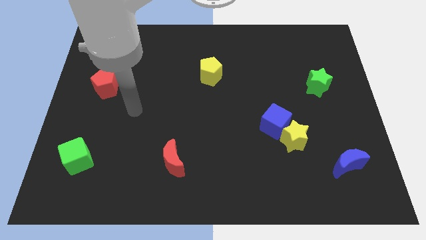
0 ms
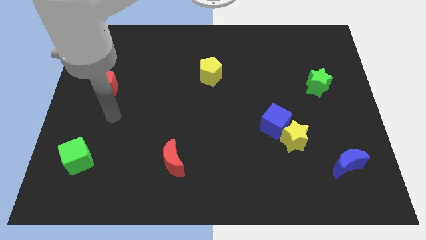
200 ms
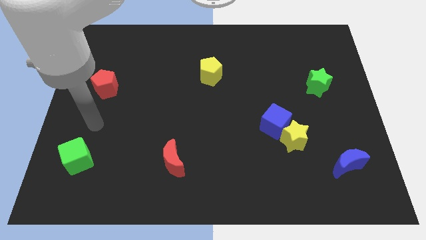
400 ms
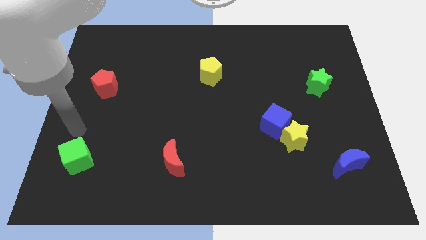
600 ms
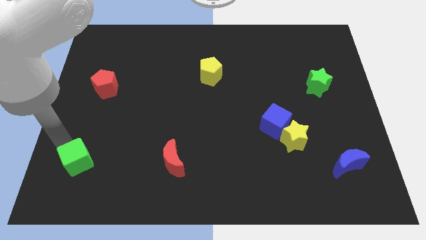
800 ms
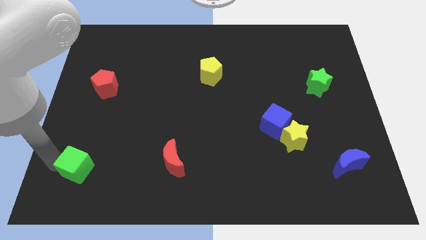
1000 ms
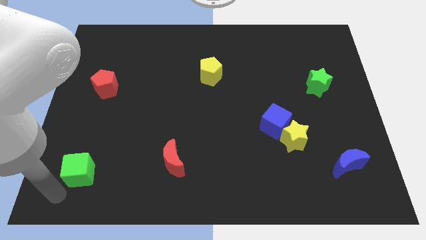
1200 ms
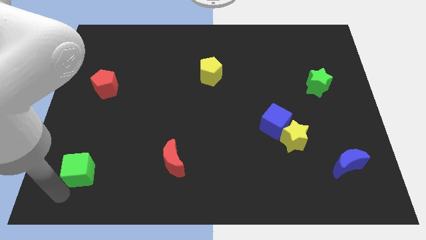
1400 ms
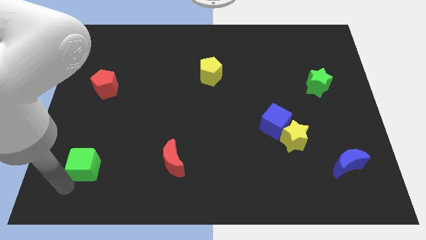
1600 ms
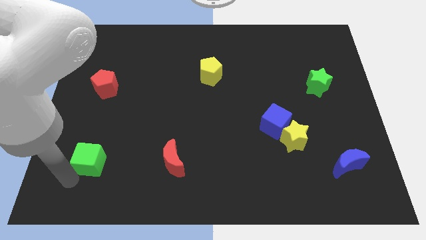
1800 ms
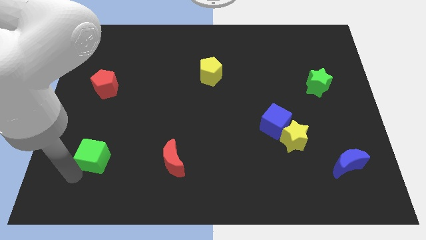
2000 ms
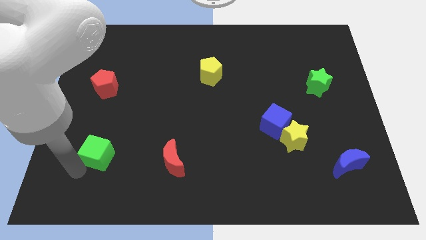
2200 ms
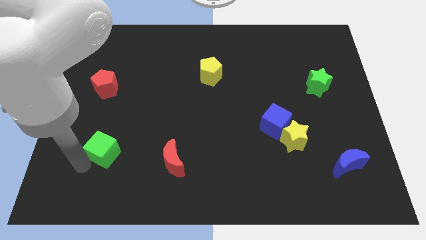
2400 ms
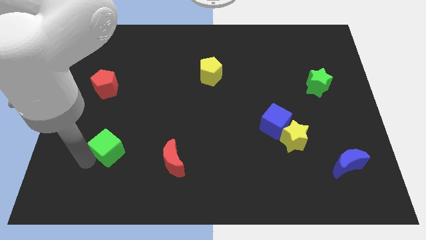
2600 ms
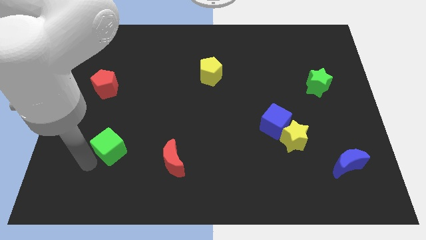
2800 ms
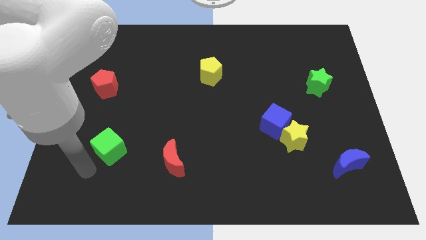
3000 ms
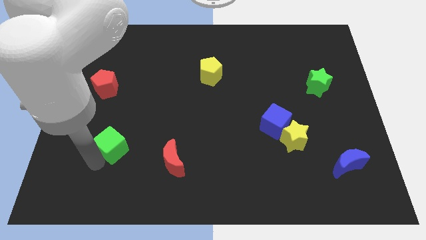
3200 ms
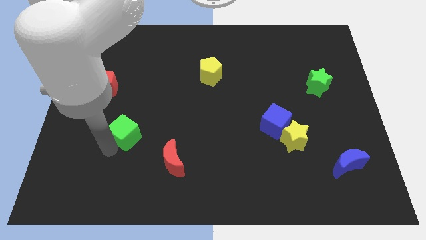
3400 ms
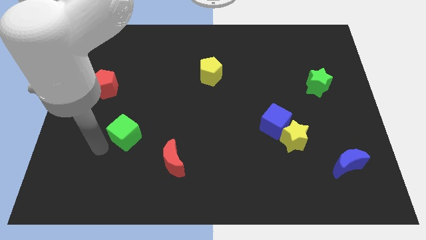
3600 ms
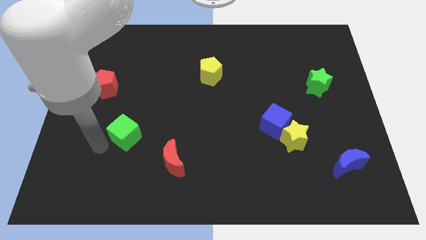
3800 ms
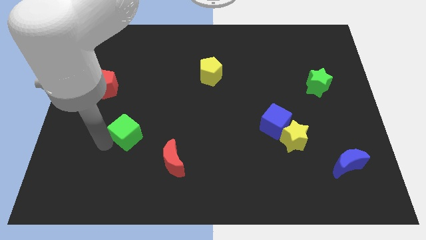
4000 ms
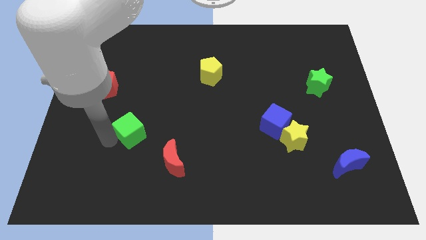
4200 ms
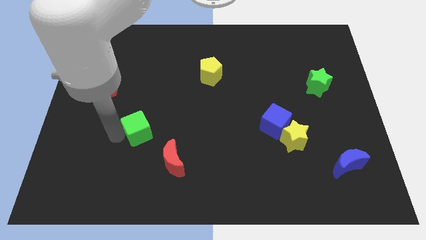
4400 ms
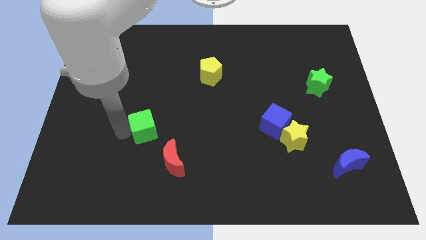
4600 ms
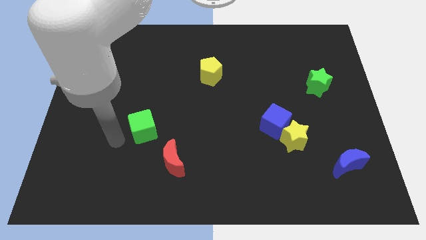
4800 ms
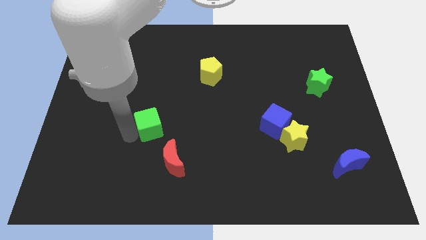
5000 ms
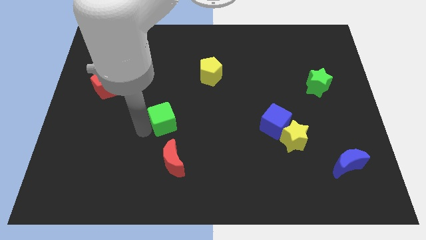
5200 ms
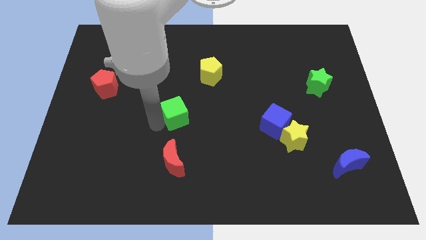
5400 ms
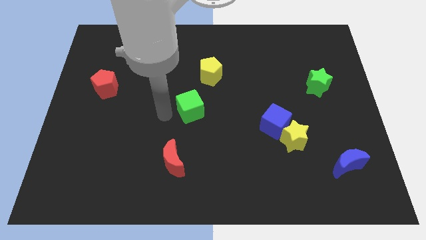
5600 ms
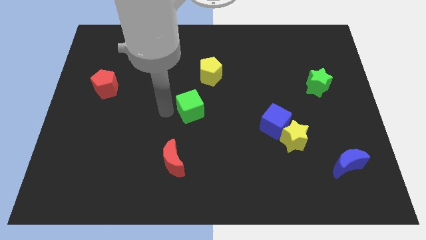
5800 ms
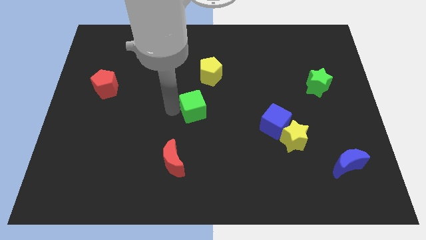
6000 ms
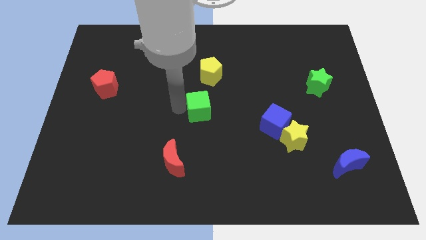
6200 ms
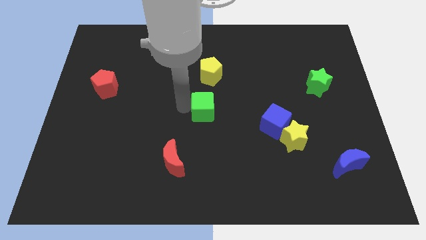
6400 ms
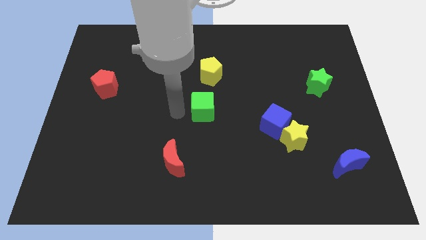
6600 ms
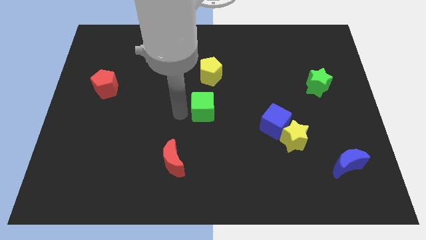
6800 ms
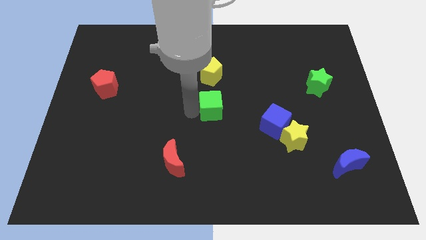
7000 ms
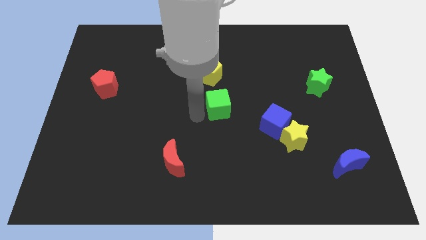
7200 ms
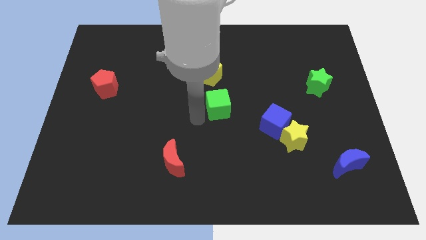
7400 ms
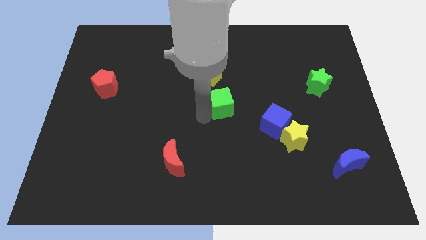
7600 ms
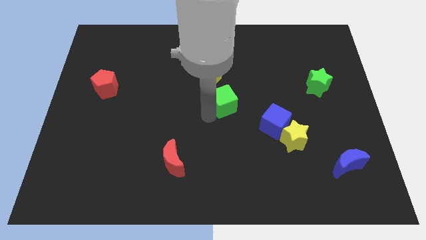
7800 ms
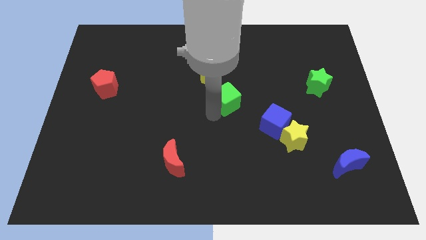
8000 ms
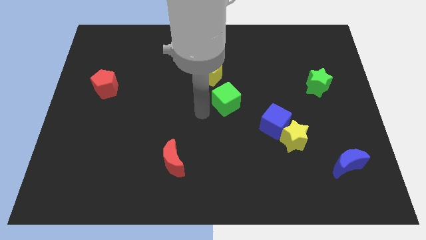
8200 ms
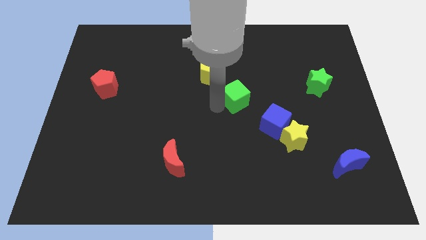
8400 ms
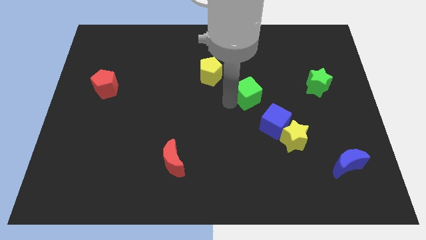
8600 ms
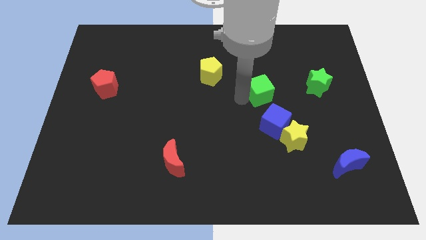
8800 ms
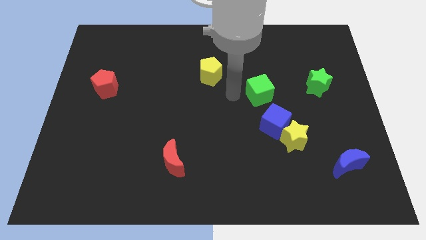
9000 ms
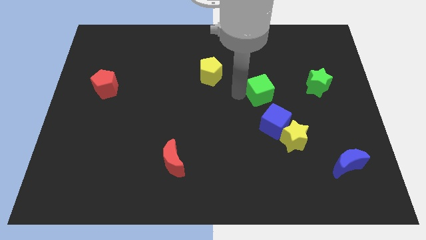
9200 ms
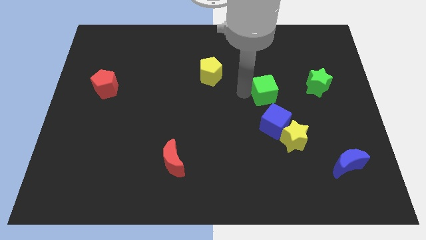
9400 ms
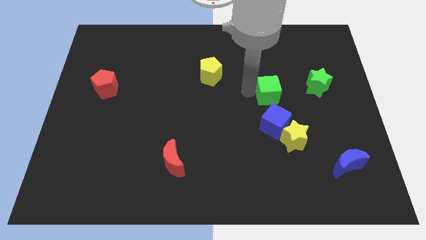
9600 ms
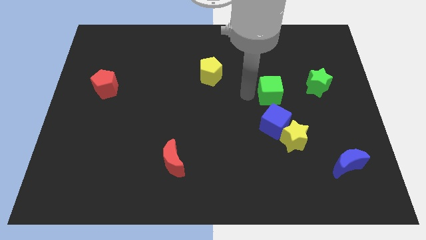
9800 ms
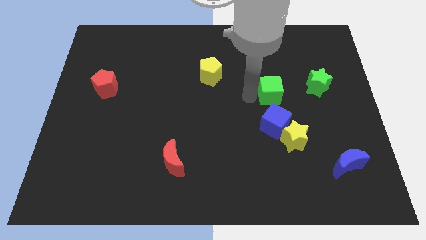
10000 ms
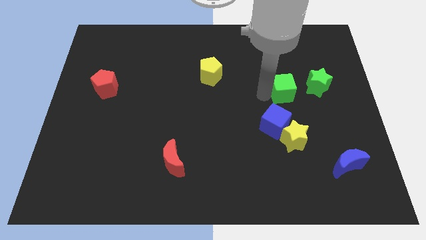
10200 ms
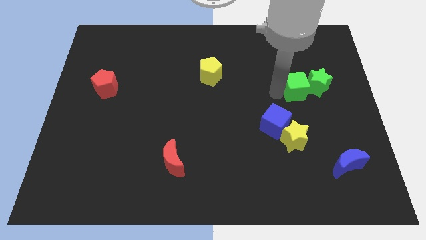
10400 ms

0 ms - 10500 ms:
slide the green cube next to the green star

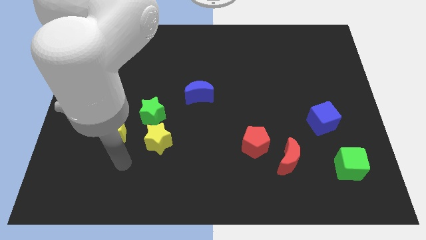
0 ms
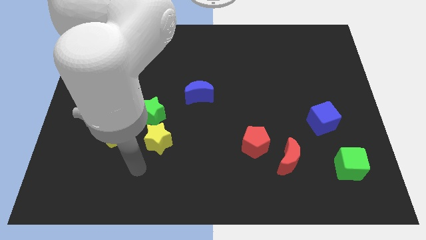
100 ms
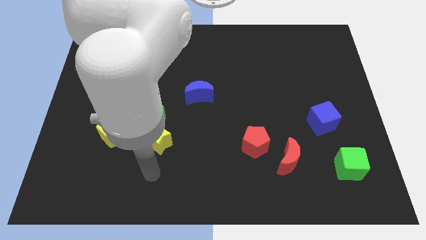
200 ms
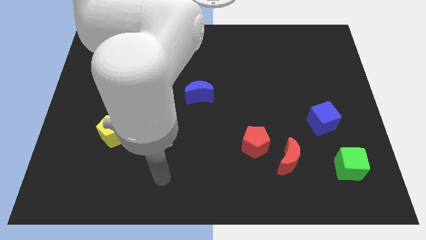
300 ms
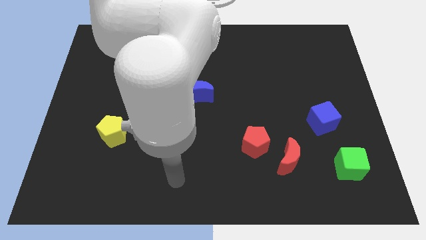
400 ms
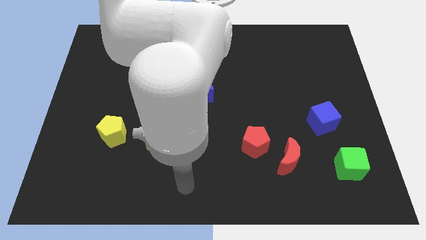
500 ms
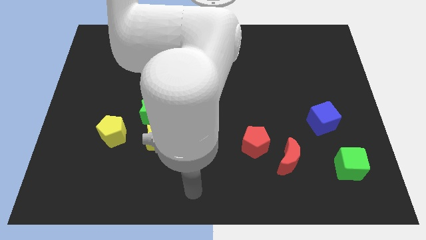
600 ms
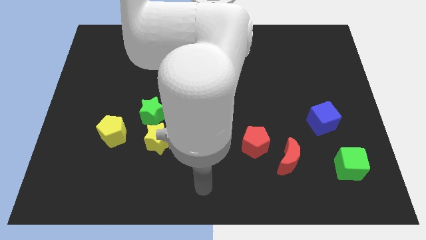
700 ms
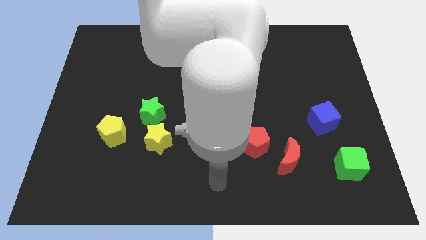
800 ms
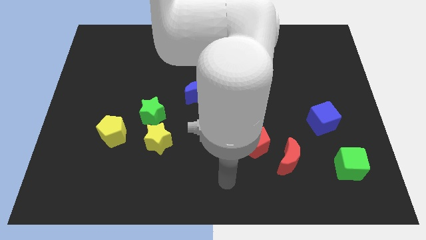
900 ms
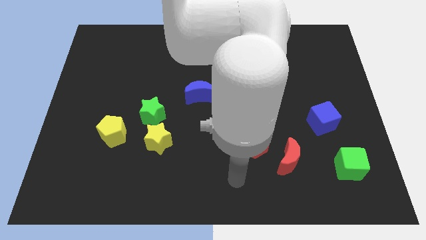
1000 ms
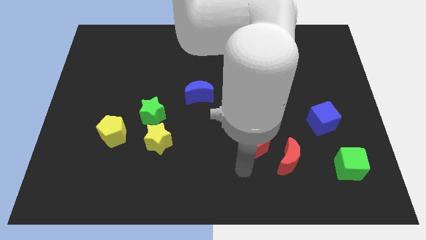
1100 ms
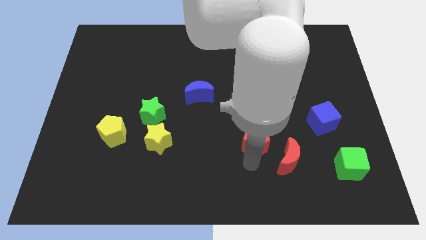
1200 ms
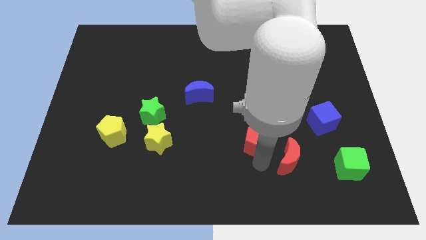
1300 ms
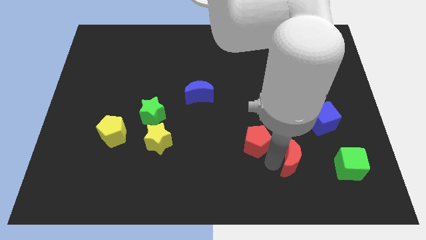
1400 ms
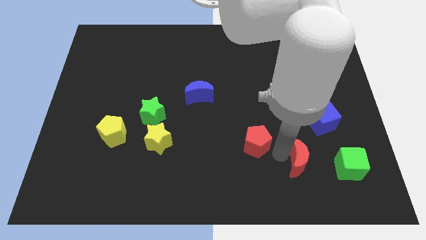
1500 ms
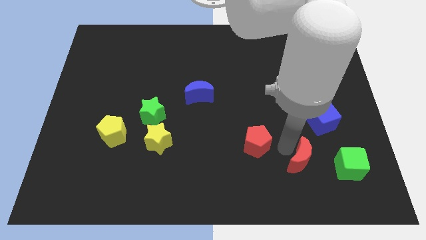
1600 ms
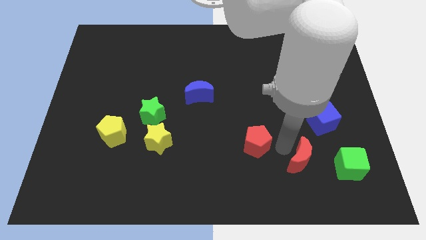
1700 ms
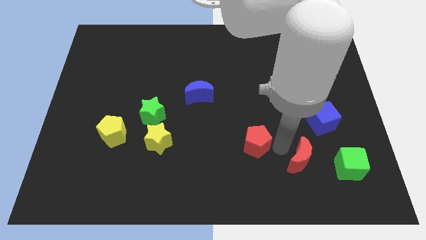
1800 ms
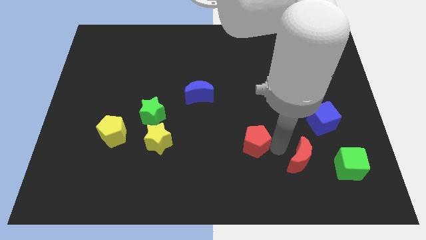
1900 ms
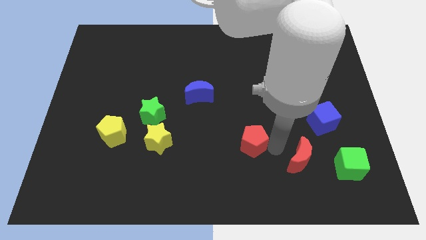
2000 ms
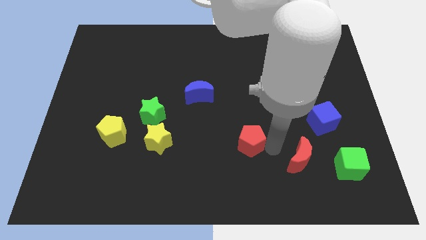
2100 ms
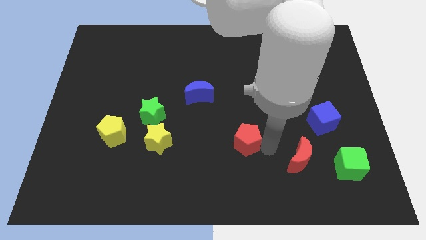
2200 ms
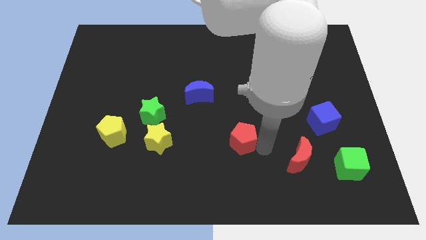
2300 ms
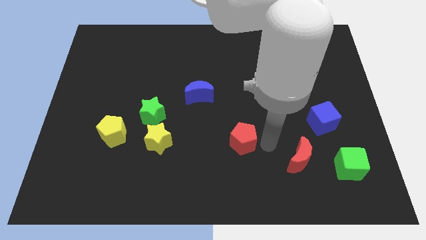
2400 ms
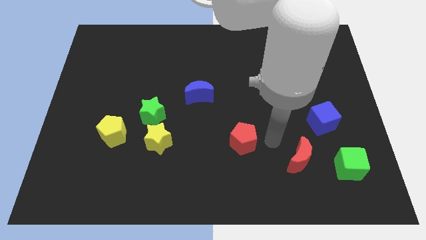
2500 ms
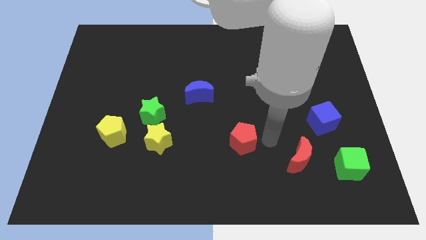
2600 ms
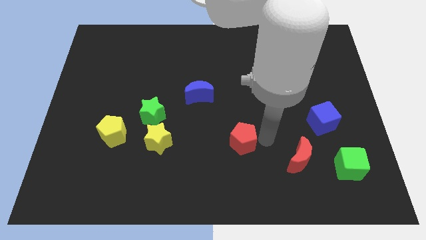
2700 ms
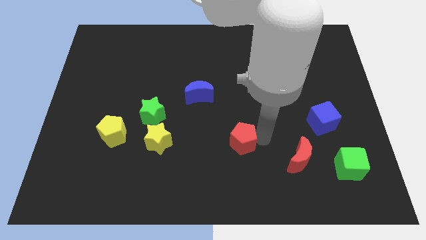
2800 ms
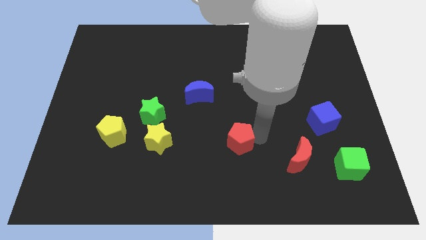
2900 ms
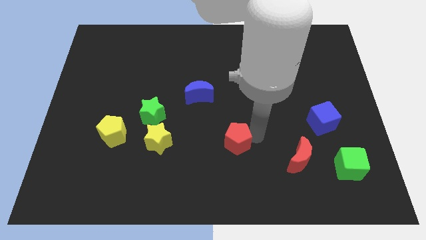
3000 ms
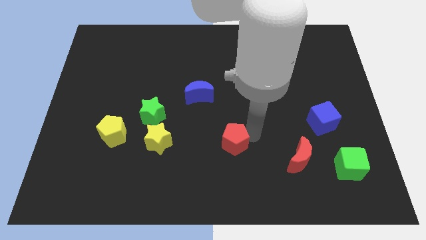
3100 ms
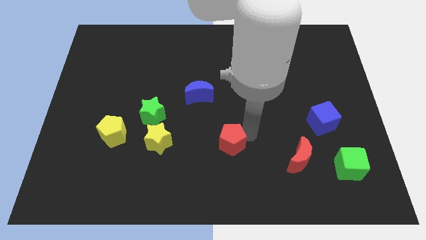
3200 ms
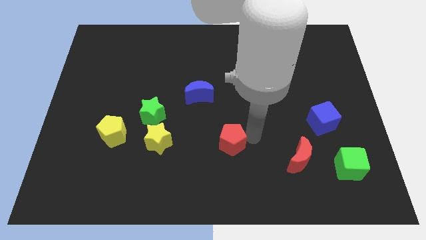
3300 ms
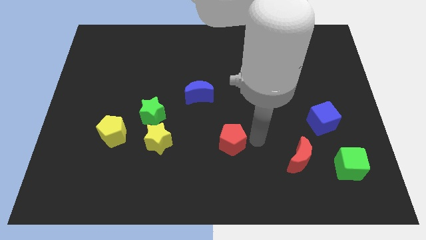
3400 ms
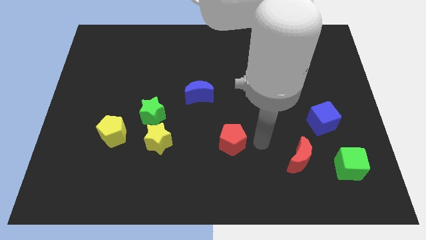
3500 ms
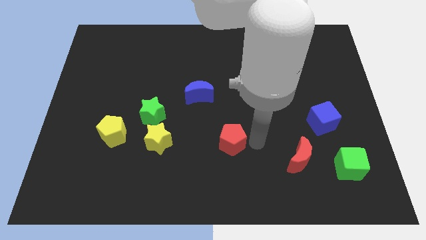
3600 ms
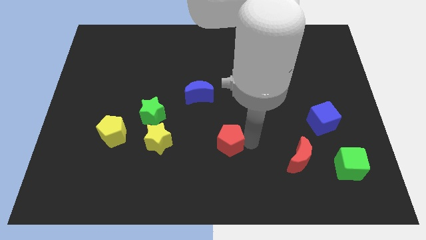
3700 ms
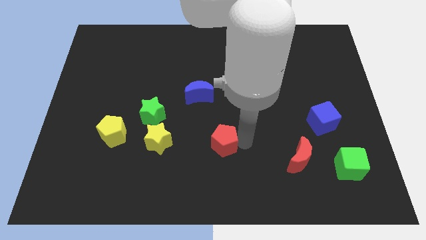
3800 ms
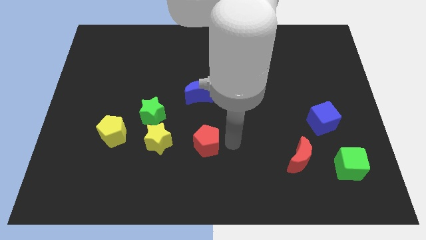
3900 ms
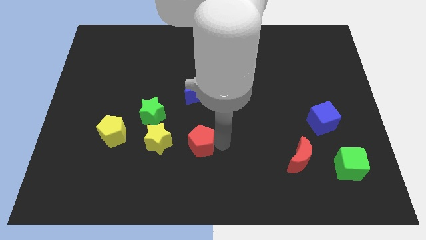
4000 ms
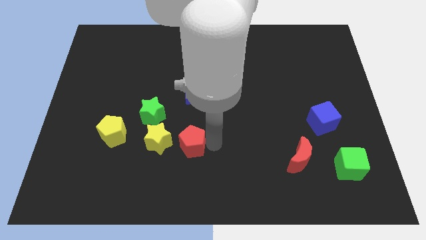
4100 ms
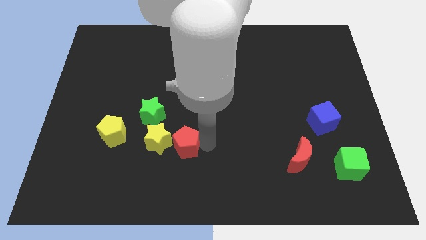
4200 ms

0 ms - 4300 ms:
move the red pentagon to the yellow star
